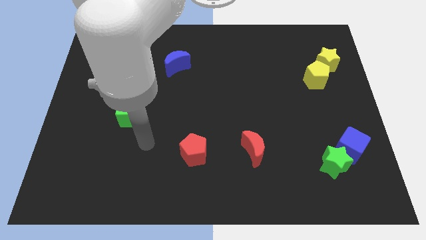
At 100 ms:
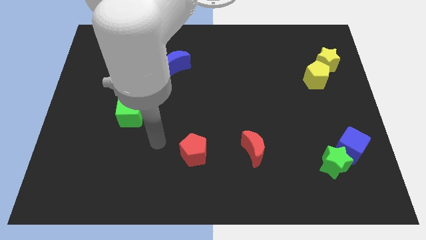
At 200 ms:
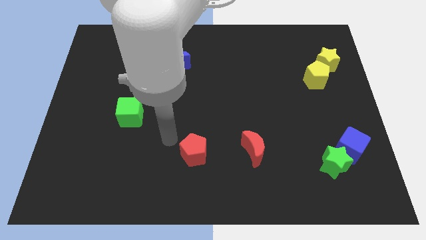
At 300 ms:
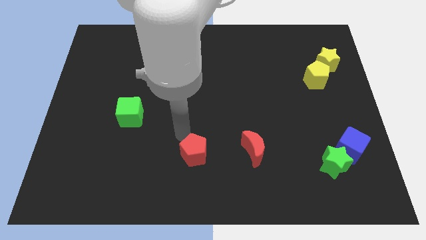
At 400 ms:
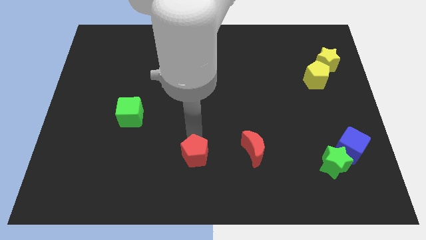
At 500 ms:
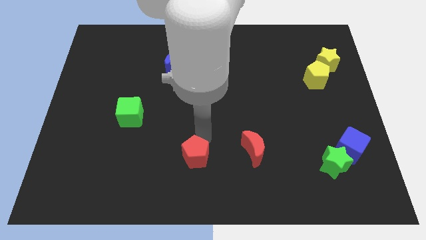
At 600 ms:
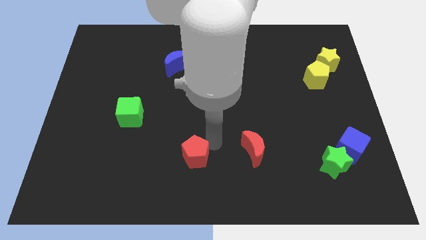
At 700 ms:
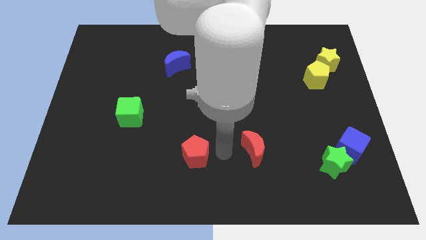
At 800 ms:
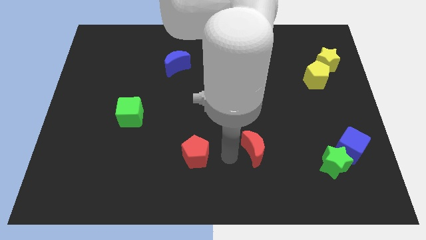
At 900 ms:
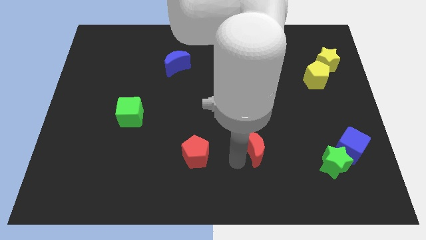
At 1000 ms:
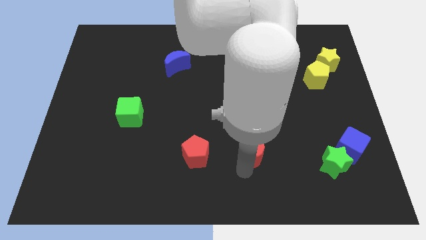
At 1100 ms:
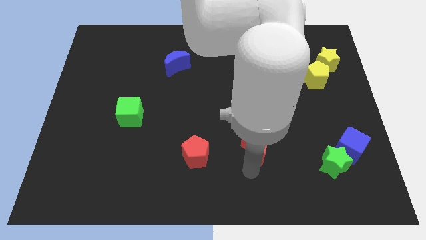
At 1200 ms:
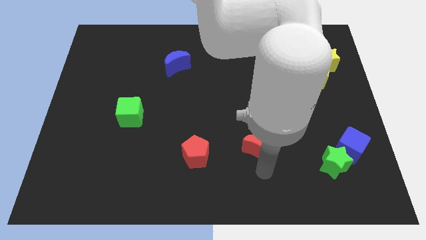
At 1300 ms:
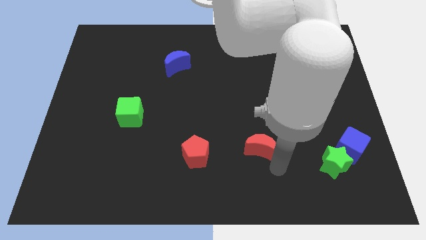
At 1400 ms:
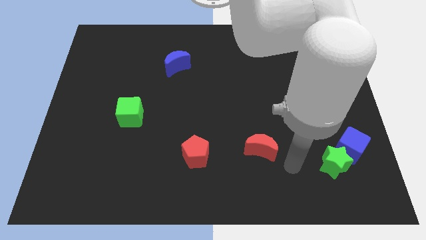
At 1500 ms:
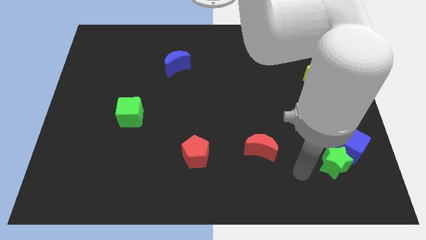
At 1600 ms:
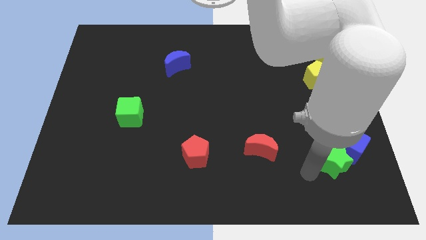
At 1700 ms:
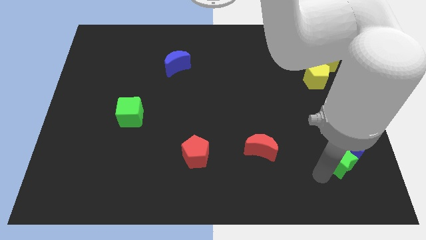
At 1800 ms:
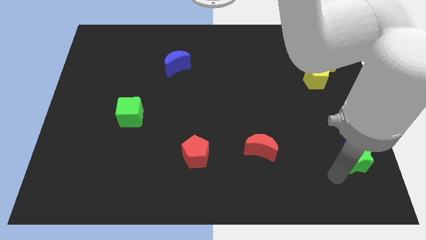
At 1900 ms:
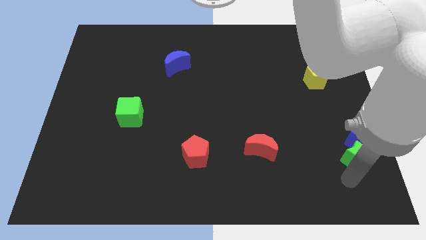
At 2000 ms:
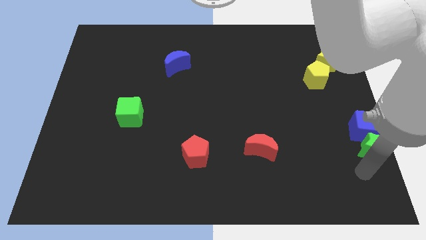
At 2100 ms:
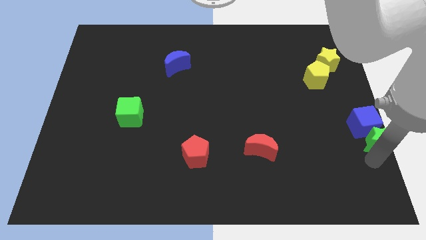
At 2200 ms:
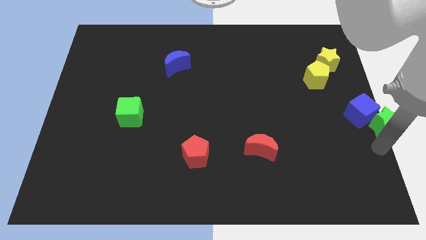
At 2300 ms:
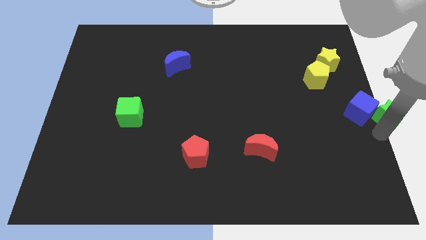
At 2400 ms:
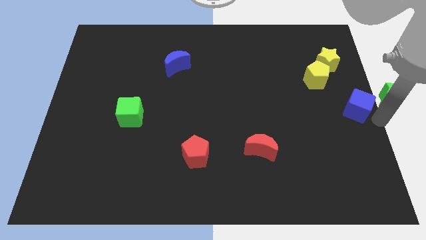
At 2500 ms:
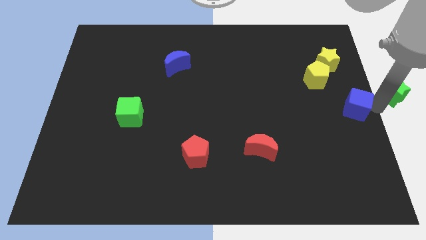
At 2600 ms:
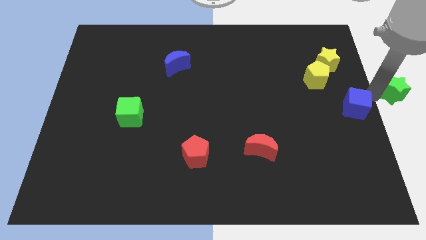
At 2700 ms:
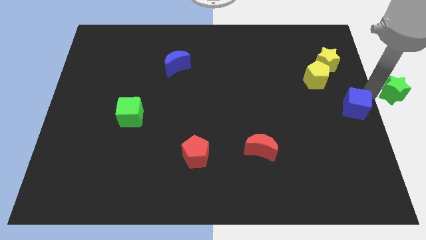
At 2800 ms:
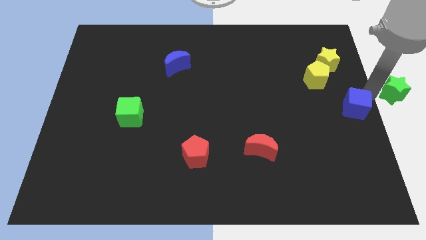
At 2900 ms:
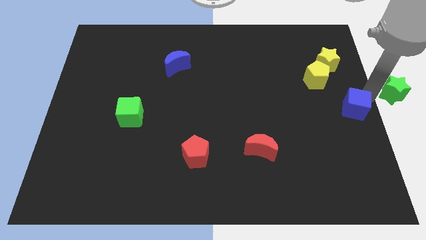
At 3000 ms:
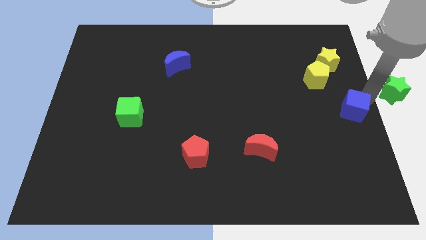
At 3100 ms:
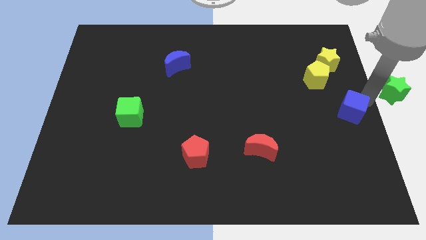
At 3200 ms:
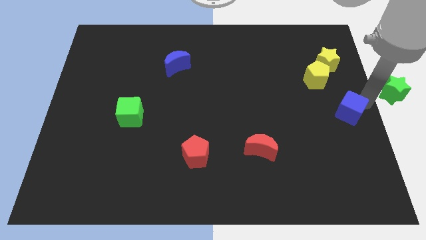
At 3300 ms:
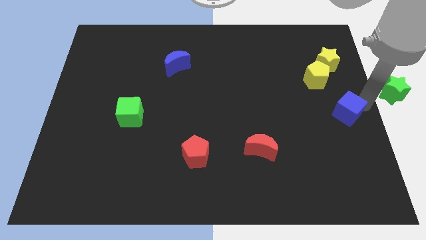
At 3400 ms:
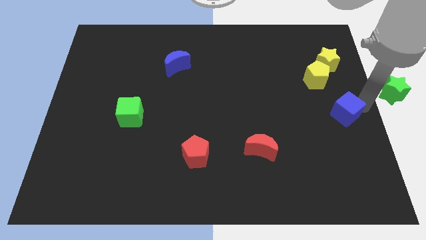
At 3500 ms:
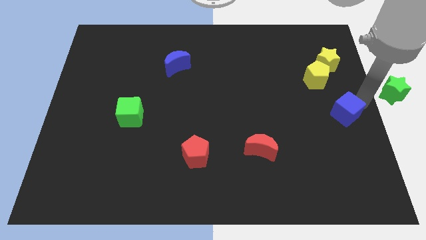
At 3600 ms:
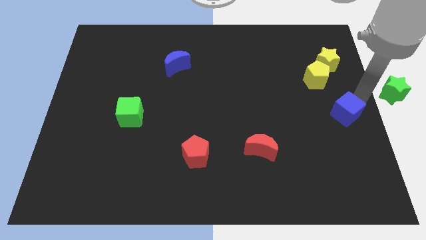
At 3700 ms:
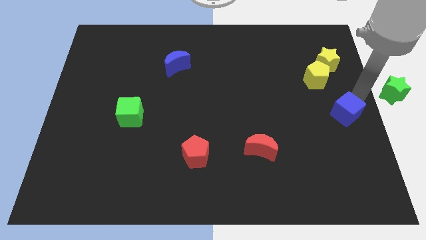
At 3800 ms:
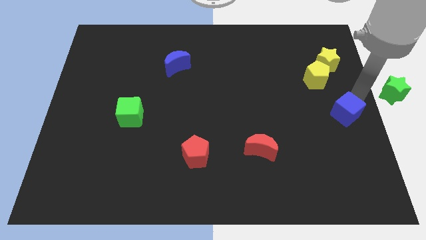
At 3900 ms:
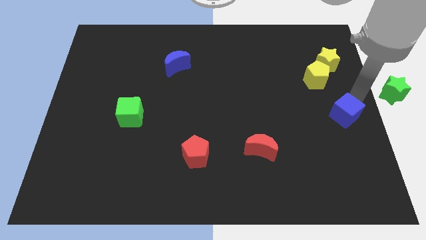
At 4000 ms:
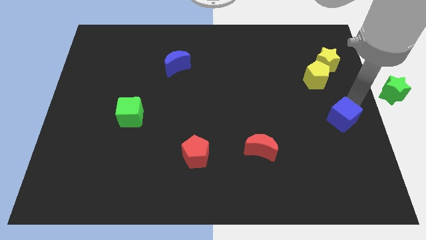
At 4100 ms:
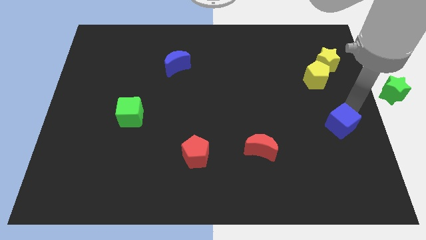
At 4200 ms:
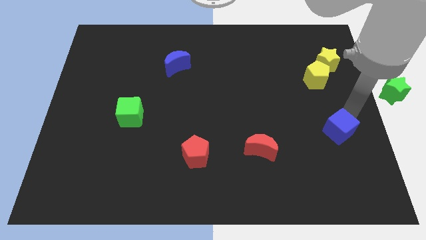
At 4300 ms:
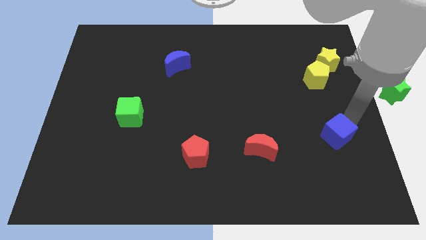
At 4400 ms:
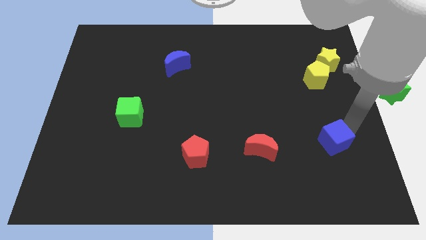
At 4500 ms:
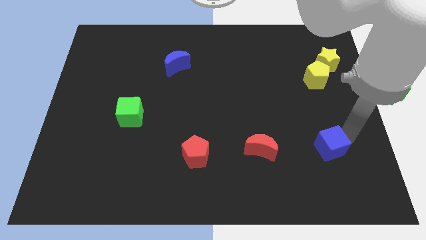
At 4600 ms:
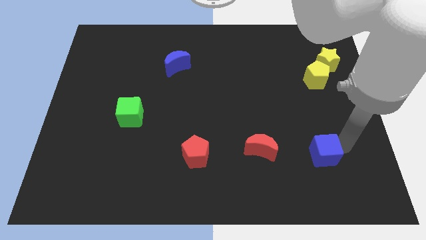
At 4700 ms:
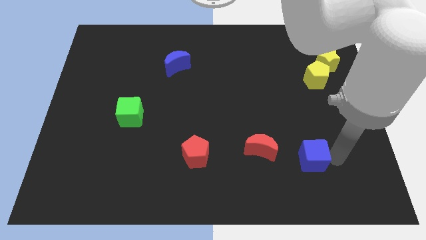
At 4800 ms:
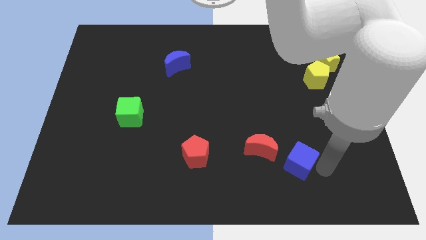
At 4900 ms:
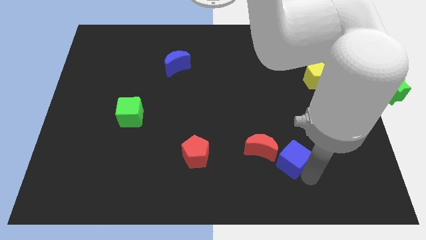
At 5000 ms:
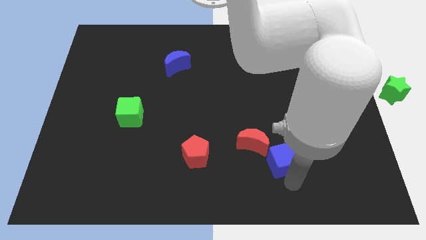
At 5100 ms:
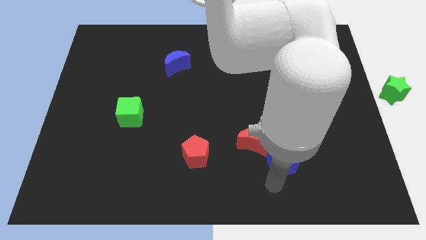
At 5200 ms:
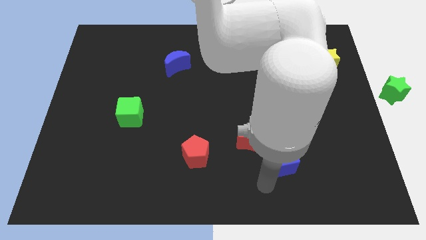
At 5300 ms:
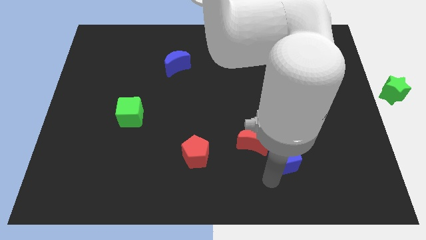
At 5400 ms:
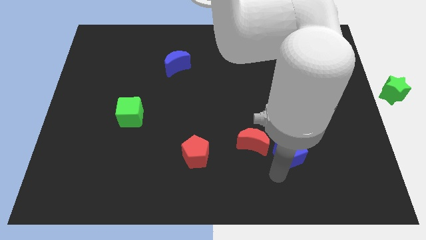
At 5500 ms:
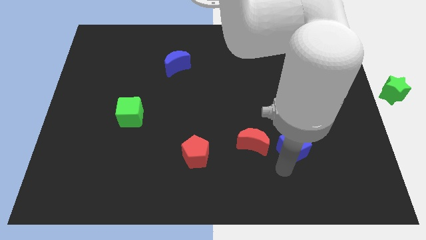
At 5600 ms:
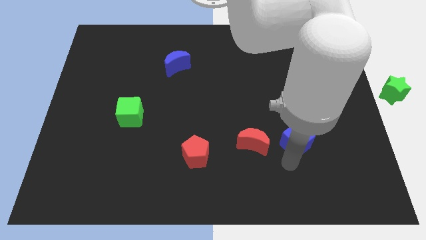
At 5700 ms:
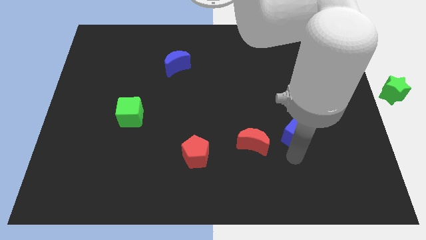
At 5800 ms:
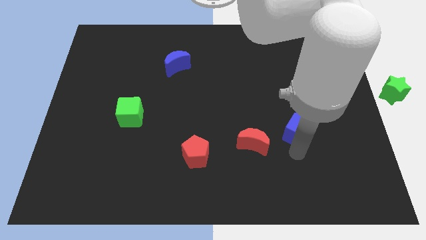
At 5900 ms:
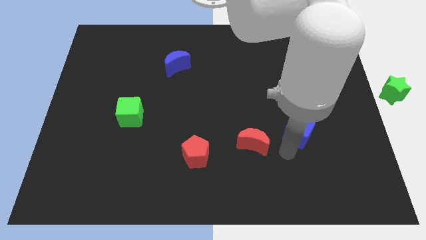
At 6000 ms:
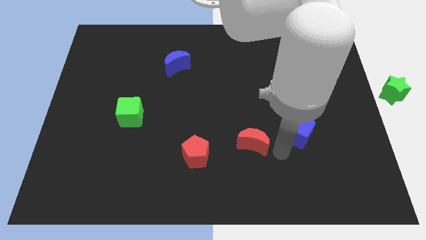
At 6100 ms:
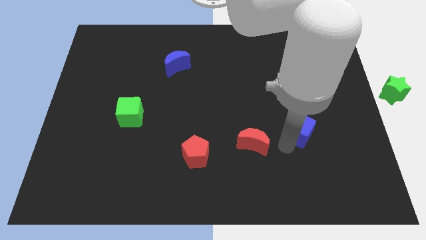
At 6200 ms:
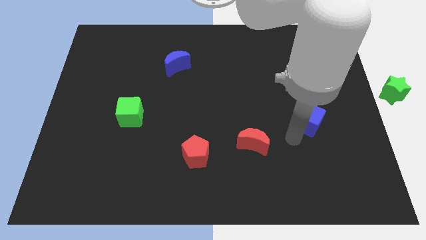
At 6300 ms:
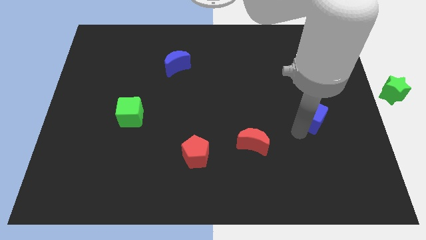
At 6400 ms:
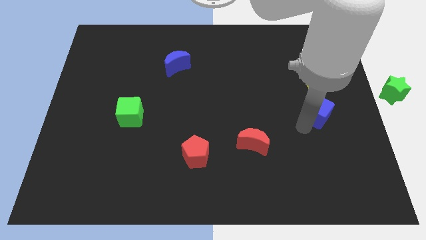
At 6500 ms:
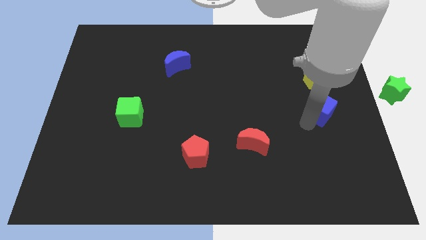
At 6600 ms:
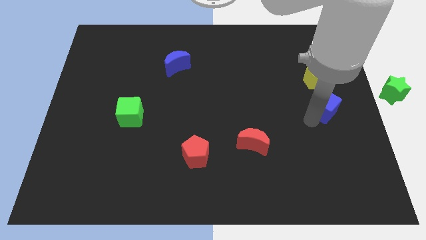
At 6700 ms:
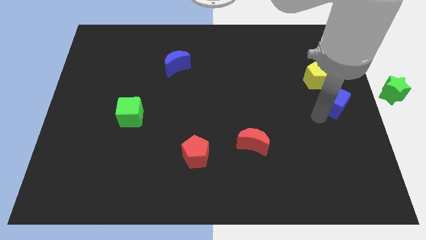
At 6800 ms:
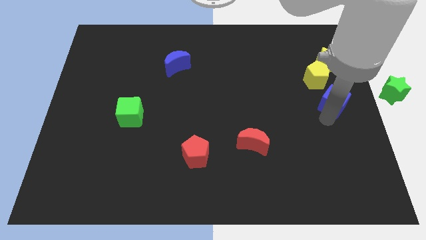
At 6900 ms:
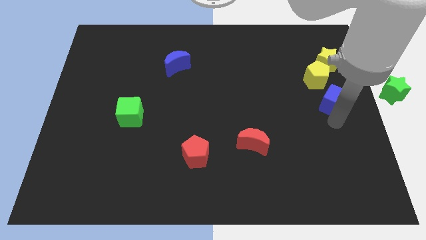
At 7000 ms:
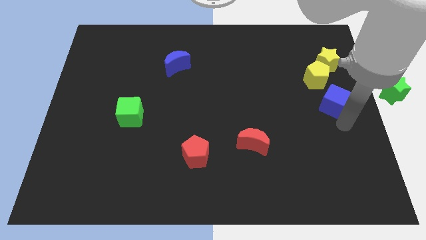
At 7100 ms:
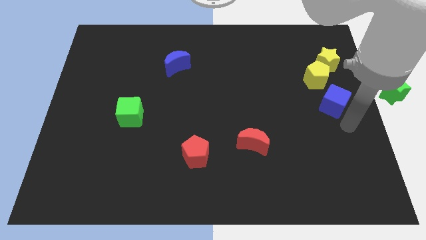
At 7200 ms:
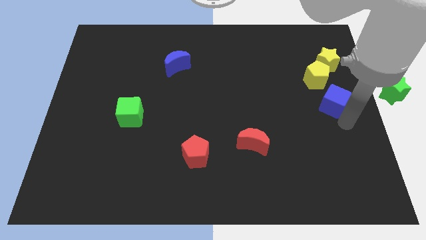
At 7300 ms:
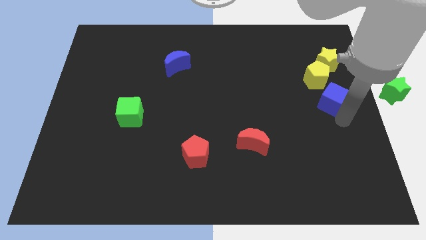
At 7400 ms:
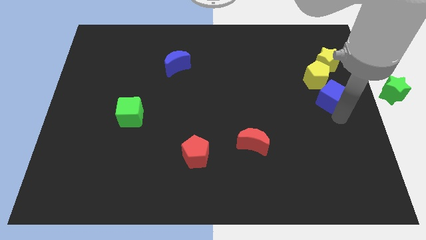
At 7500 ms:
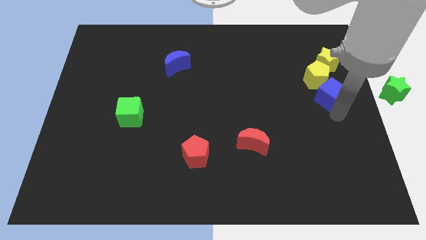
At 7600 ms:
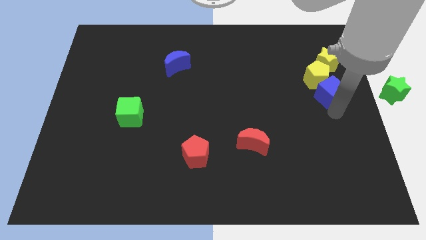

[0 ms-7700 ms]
push the blue cube towards the yellow pentagon
